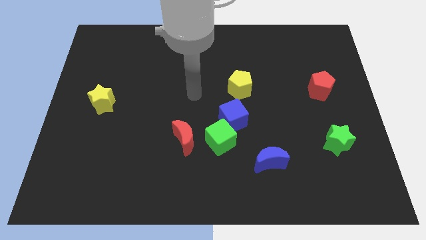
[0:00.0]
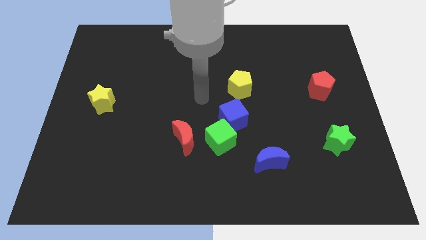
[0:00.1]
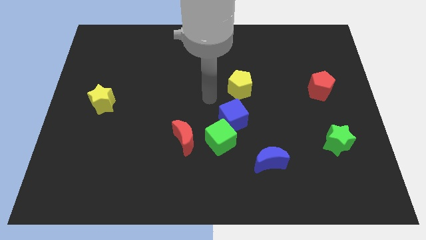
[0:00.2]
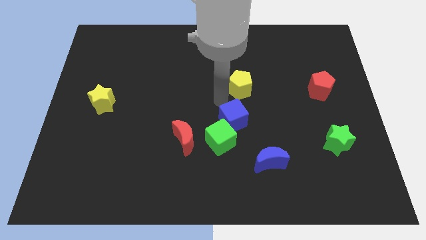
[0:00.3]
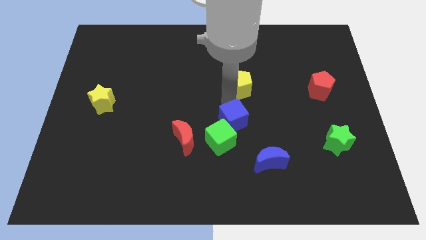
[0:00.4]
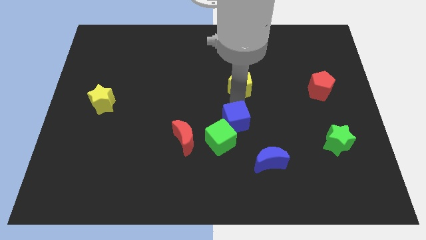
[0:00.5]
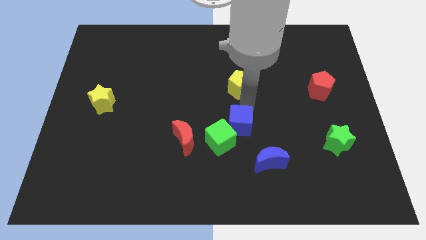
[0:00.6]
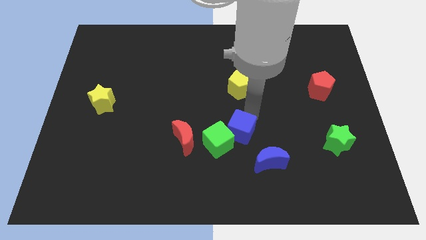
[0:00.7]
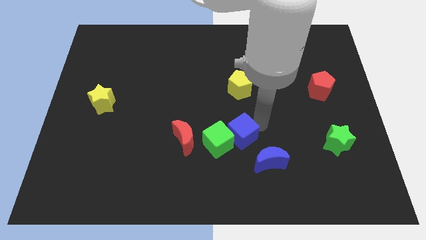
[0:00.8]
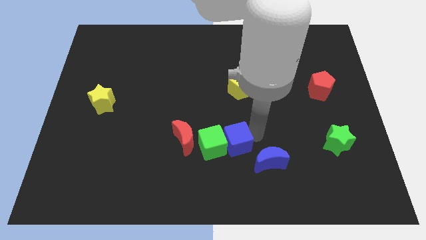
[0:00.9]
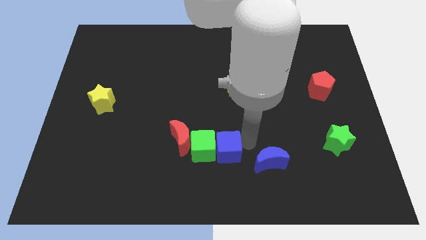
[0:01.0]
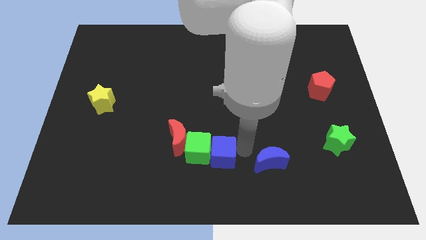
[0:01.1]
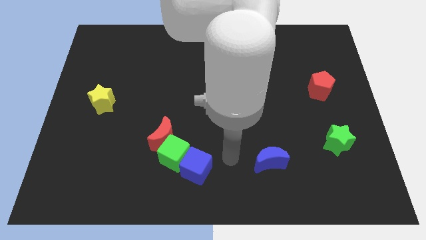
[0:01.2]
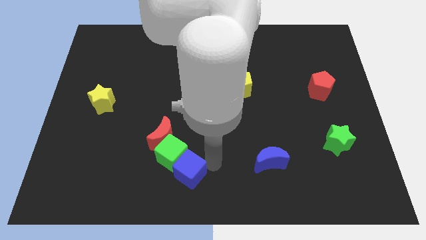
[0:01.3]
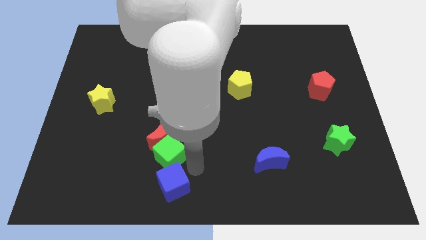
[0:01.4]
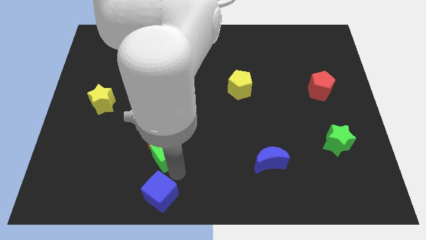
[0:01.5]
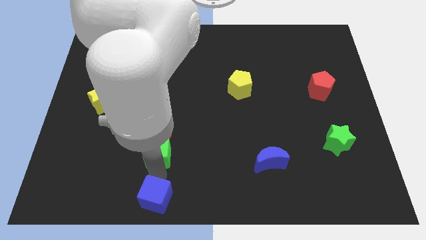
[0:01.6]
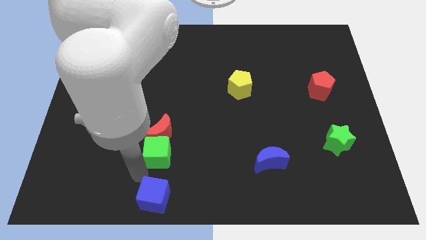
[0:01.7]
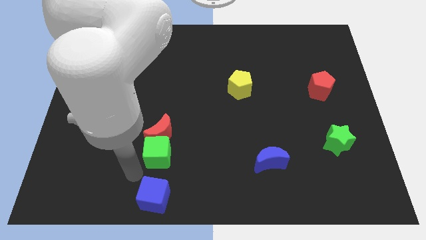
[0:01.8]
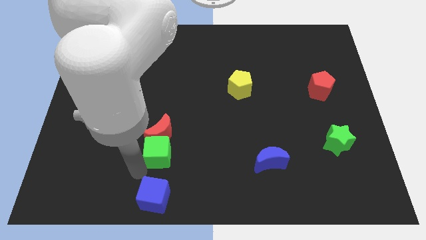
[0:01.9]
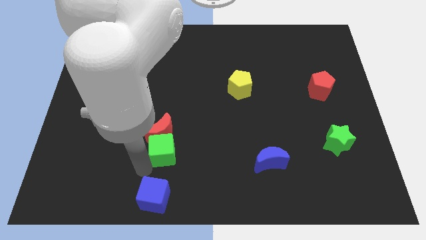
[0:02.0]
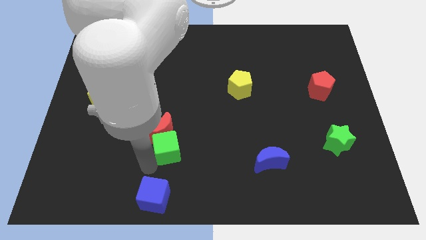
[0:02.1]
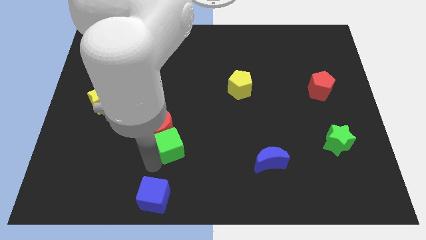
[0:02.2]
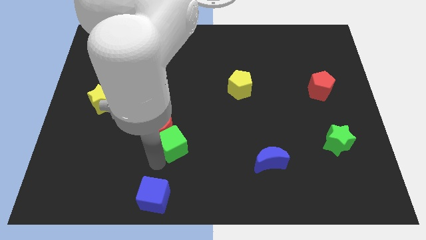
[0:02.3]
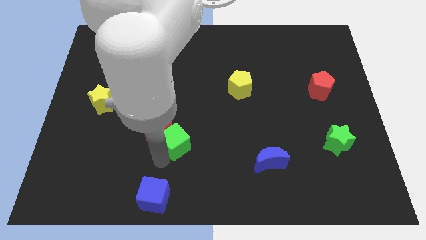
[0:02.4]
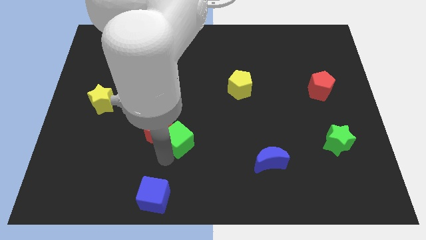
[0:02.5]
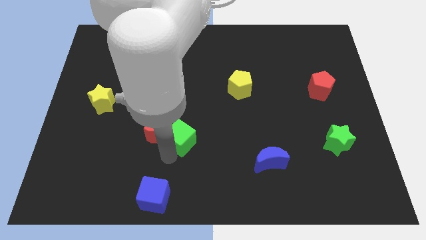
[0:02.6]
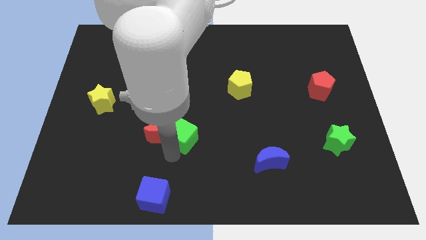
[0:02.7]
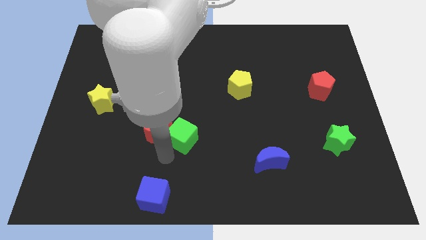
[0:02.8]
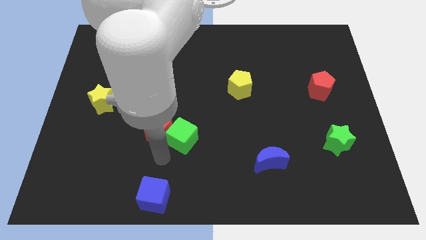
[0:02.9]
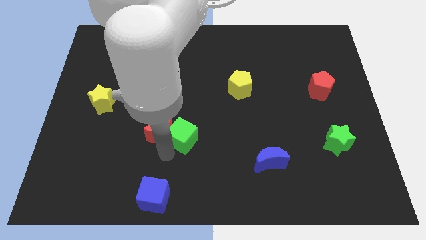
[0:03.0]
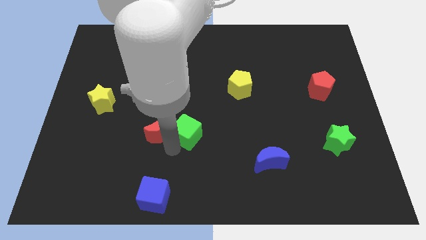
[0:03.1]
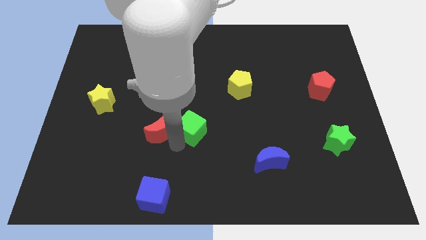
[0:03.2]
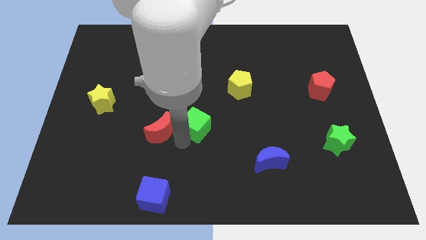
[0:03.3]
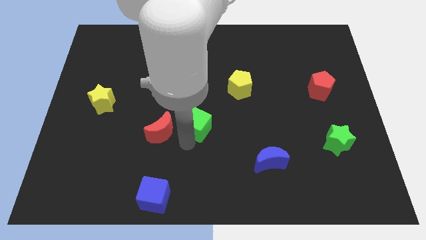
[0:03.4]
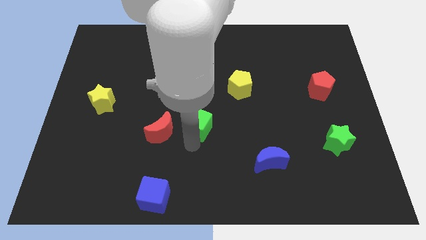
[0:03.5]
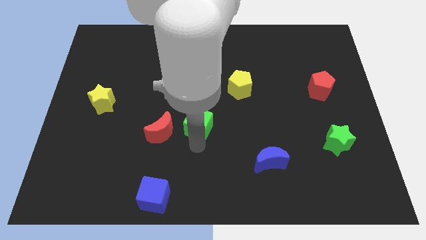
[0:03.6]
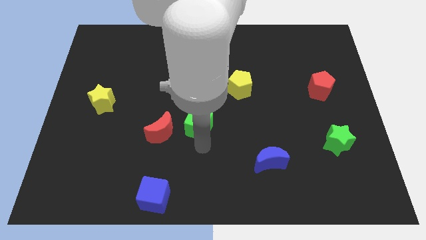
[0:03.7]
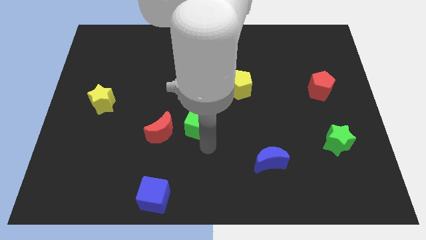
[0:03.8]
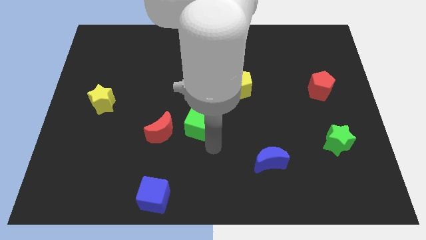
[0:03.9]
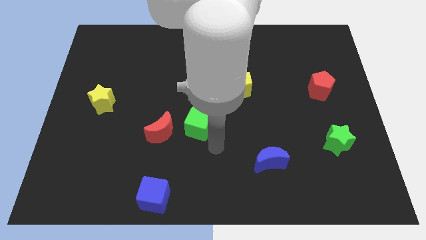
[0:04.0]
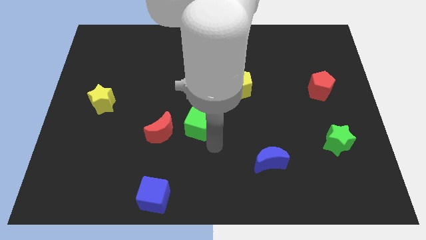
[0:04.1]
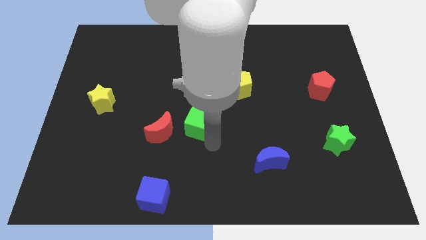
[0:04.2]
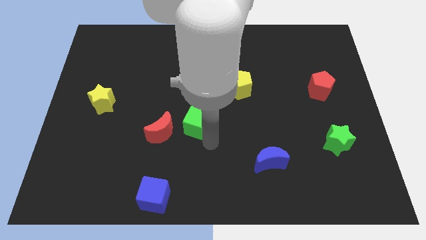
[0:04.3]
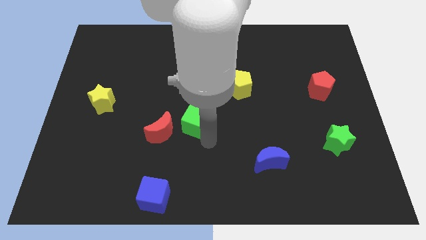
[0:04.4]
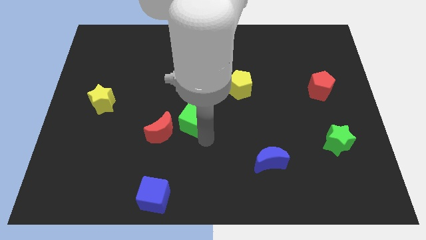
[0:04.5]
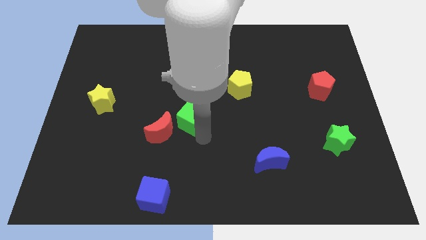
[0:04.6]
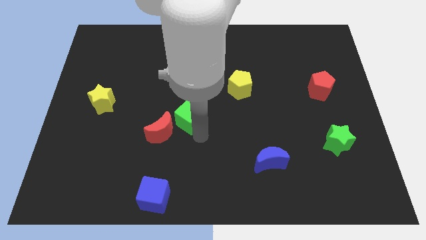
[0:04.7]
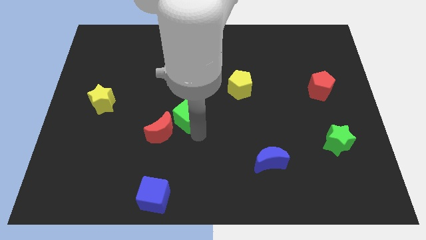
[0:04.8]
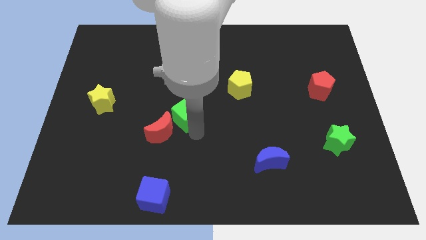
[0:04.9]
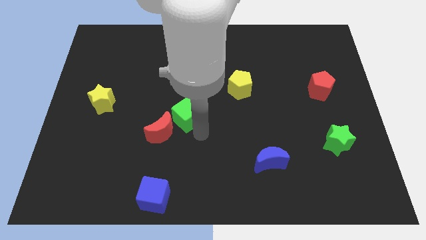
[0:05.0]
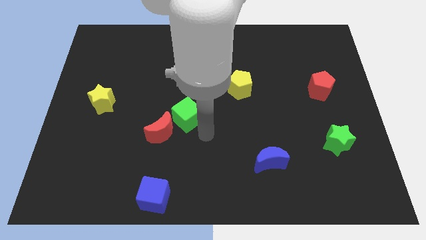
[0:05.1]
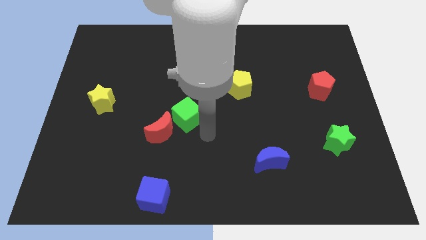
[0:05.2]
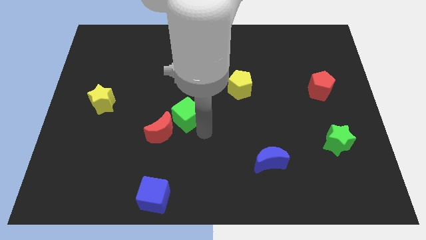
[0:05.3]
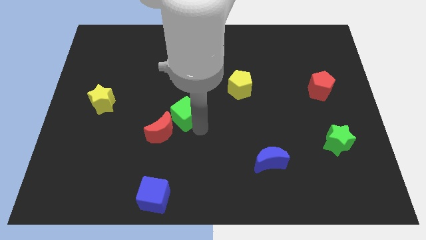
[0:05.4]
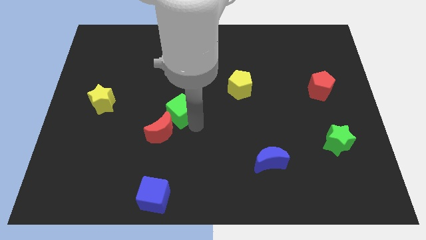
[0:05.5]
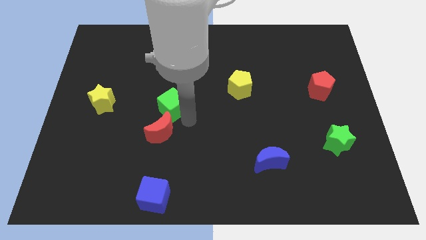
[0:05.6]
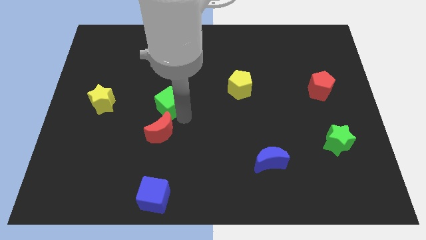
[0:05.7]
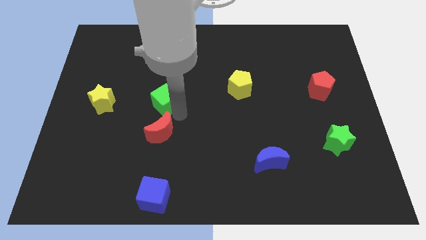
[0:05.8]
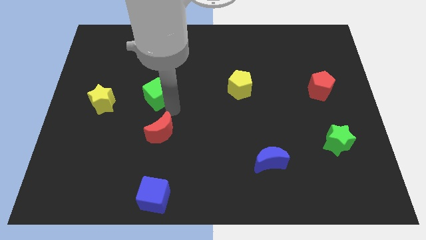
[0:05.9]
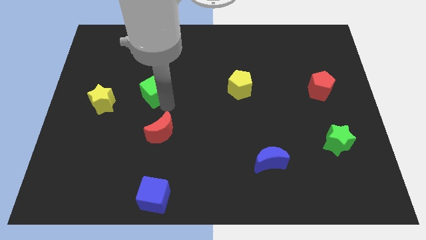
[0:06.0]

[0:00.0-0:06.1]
slide the green cube diagonally upwards and left

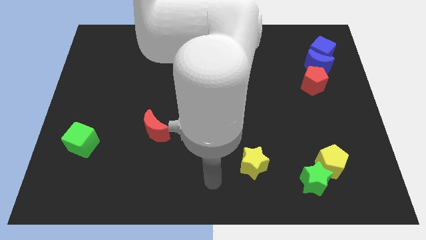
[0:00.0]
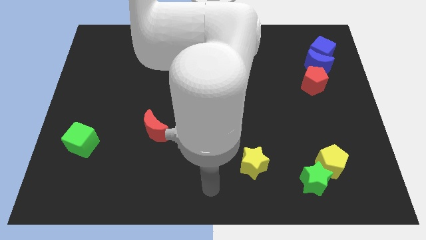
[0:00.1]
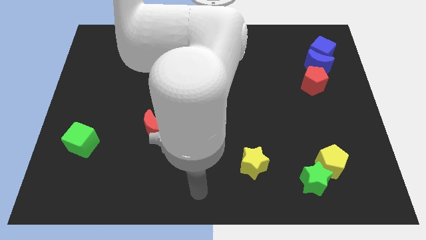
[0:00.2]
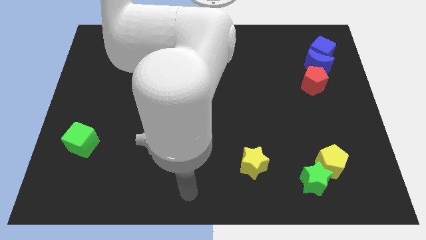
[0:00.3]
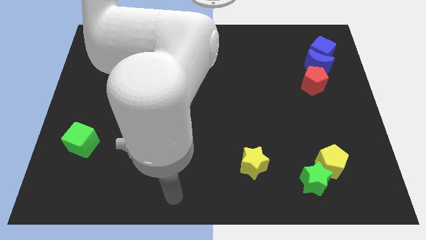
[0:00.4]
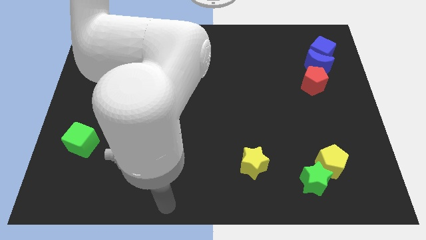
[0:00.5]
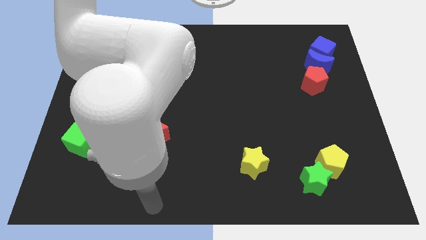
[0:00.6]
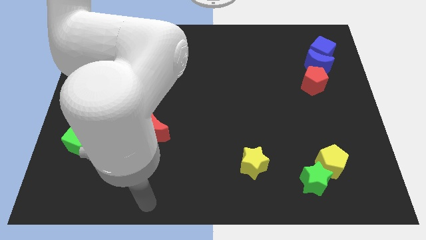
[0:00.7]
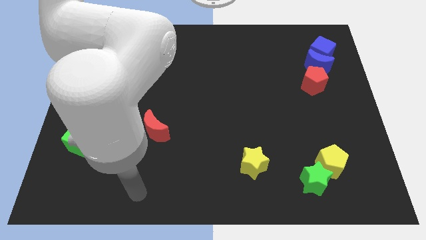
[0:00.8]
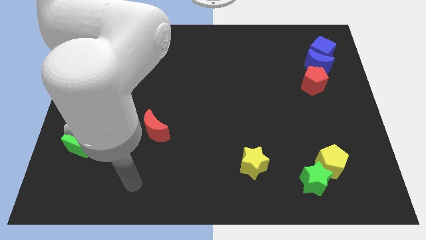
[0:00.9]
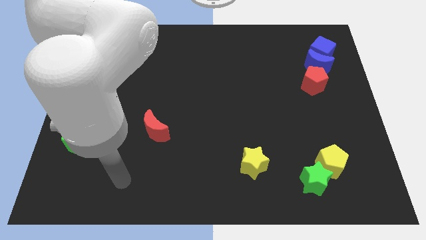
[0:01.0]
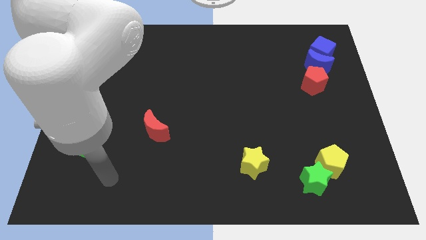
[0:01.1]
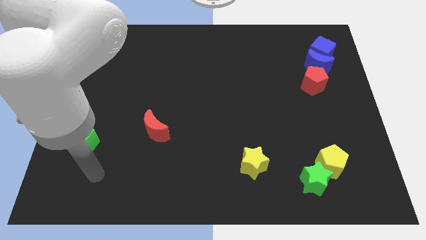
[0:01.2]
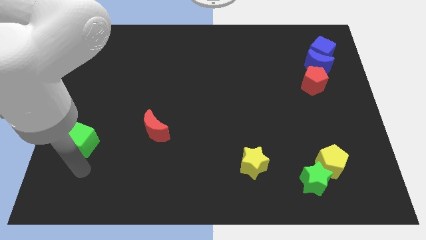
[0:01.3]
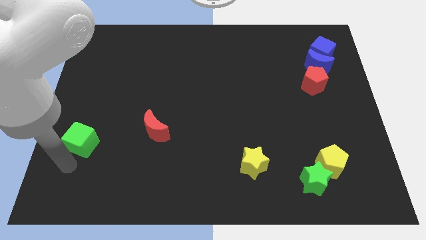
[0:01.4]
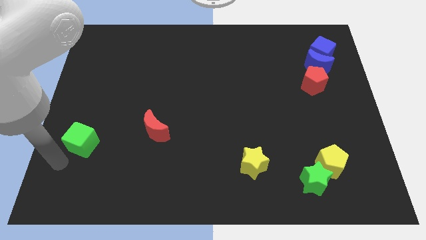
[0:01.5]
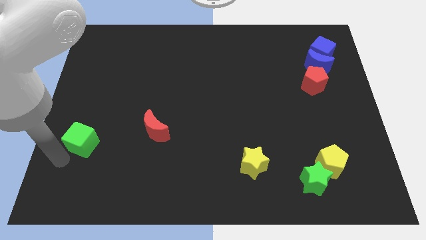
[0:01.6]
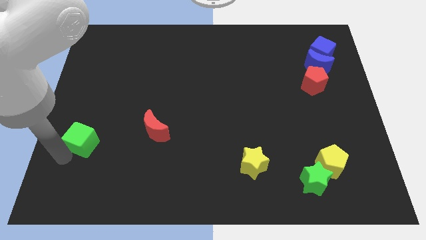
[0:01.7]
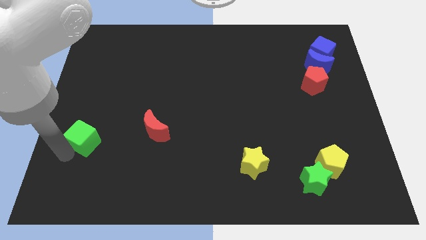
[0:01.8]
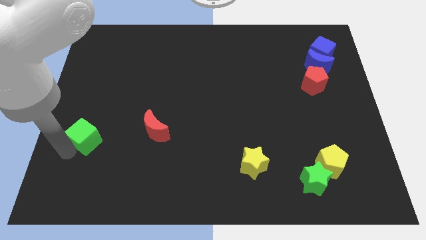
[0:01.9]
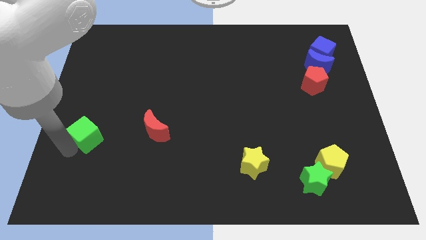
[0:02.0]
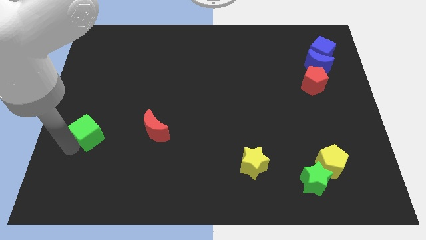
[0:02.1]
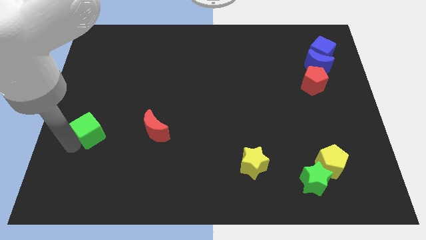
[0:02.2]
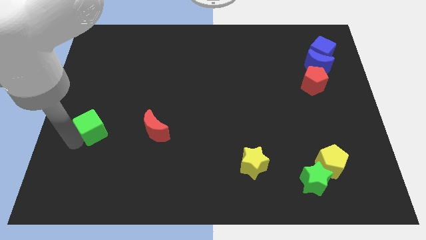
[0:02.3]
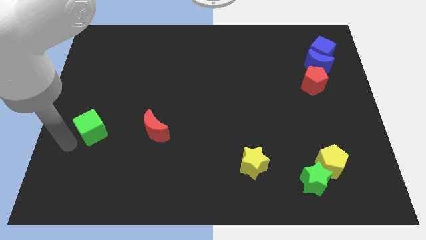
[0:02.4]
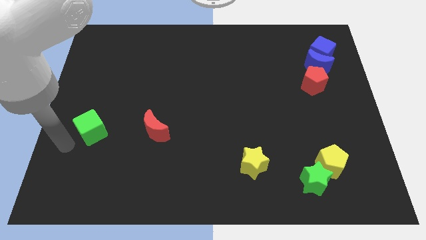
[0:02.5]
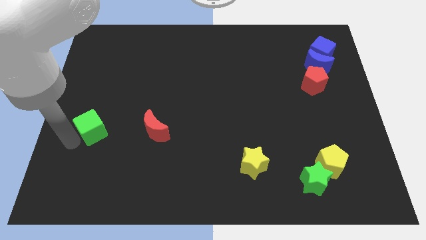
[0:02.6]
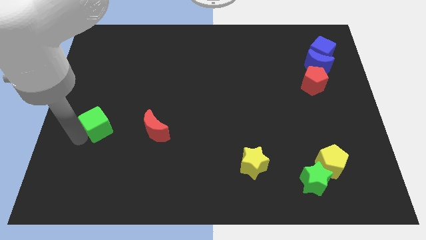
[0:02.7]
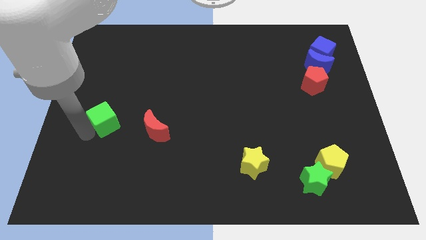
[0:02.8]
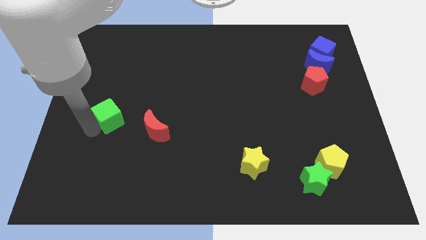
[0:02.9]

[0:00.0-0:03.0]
push the green cube somewhat upwards and right
